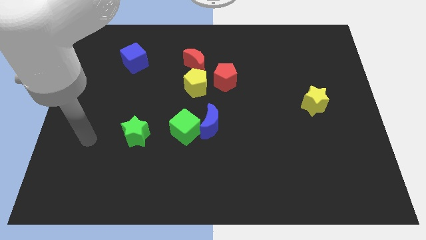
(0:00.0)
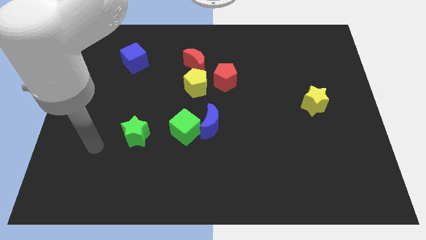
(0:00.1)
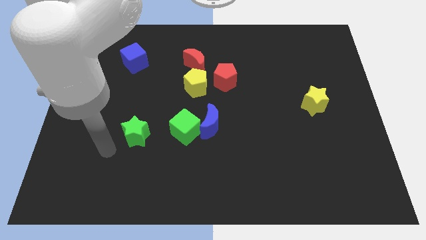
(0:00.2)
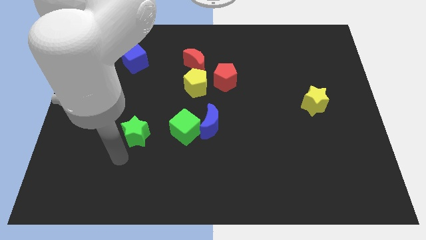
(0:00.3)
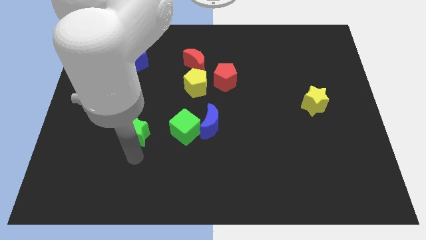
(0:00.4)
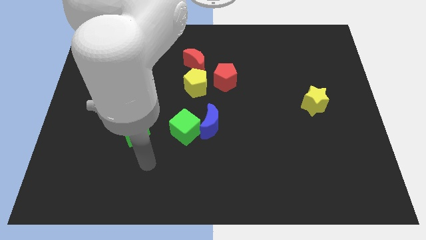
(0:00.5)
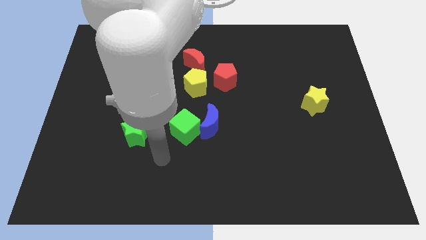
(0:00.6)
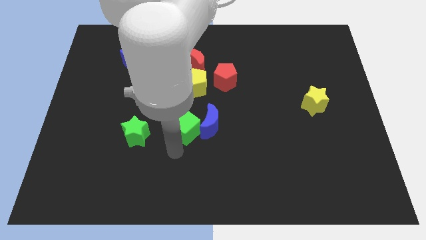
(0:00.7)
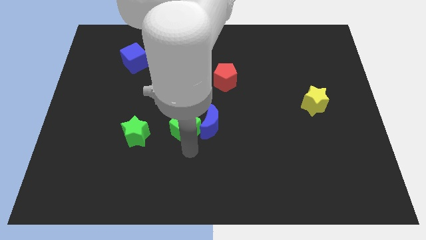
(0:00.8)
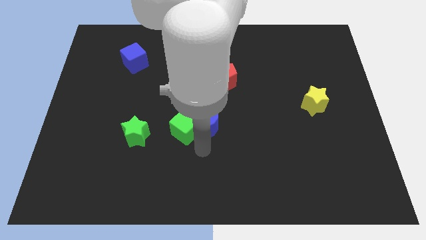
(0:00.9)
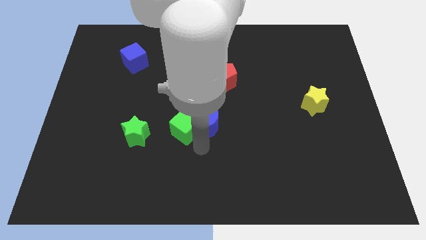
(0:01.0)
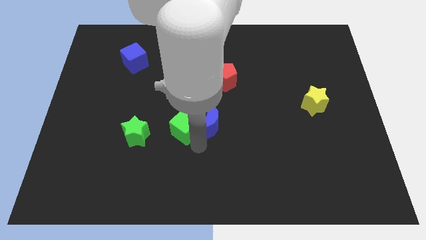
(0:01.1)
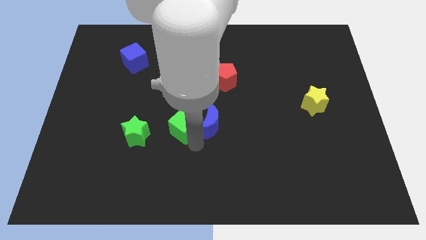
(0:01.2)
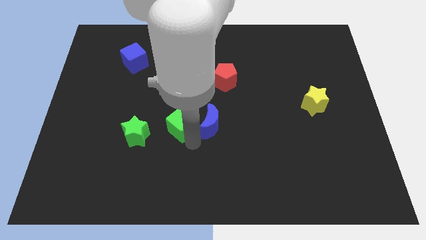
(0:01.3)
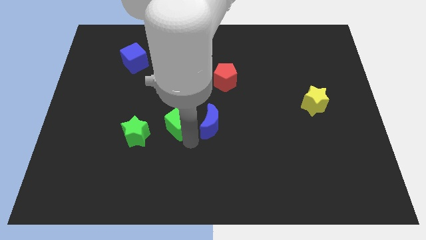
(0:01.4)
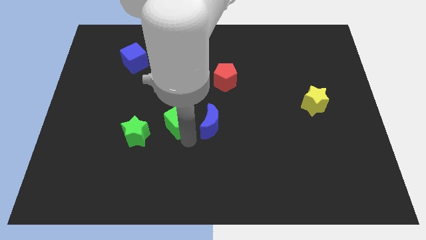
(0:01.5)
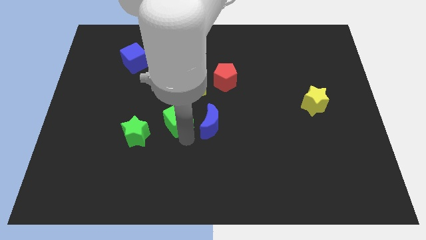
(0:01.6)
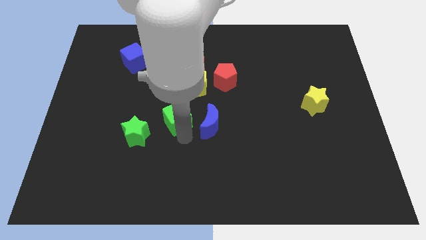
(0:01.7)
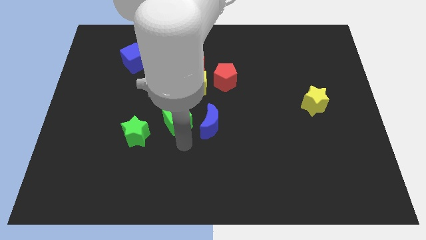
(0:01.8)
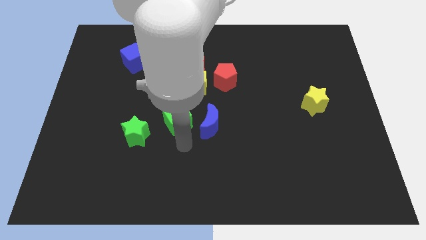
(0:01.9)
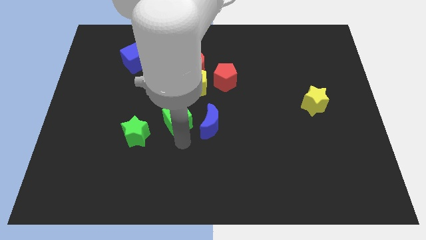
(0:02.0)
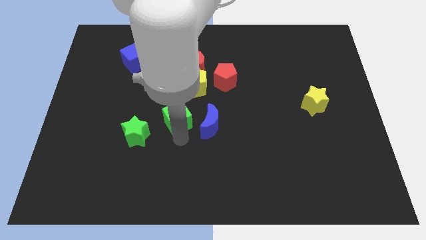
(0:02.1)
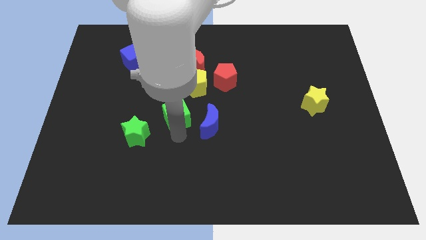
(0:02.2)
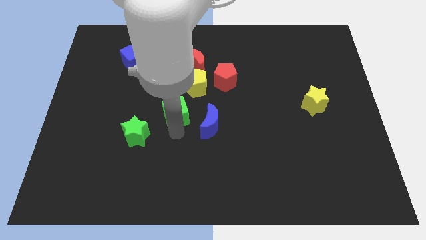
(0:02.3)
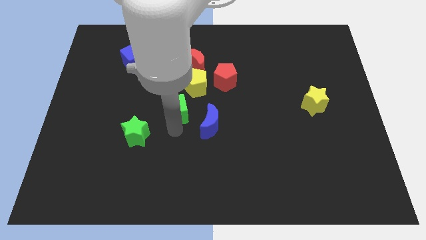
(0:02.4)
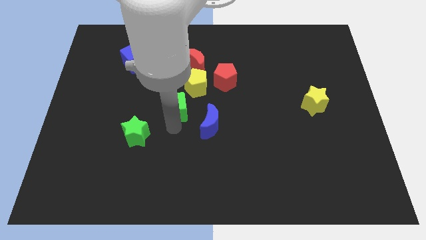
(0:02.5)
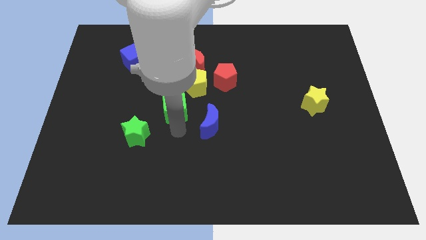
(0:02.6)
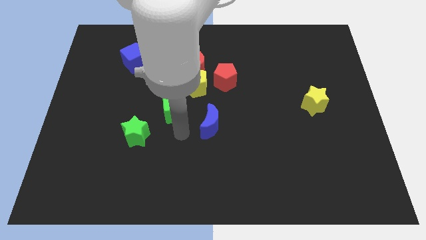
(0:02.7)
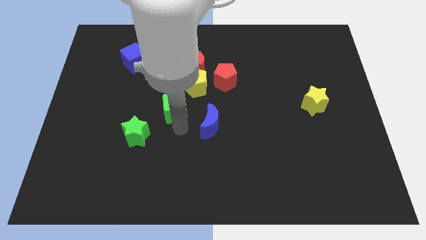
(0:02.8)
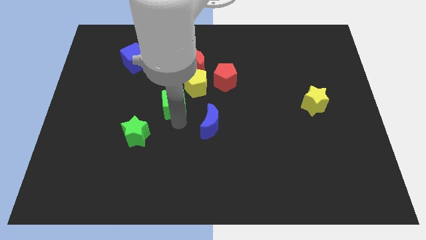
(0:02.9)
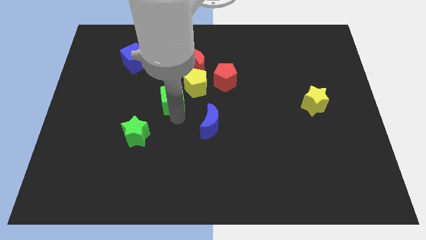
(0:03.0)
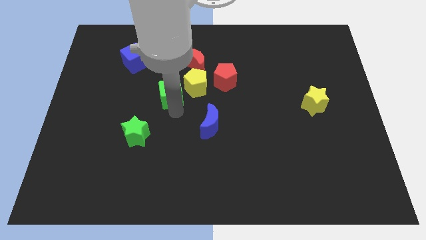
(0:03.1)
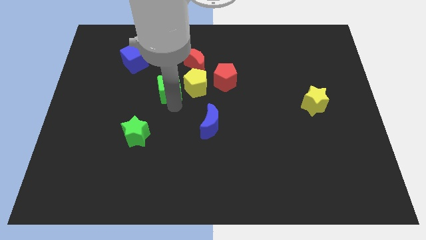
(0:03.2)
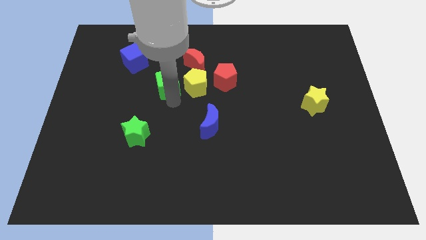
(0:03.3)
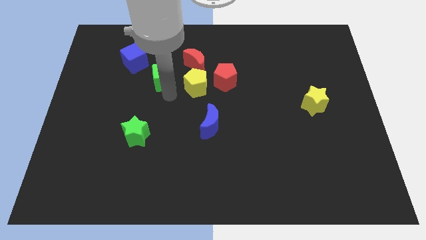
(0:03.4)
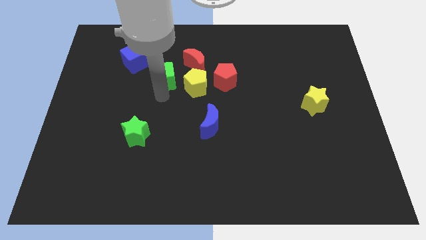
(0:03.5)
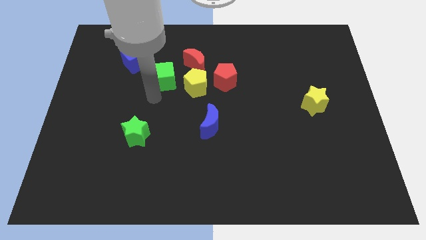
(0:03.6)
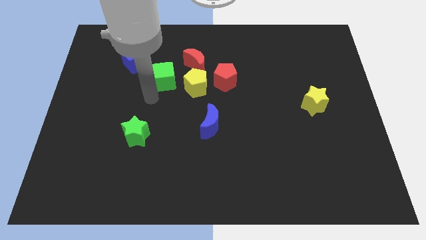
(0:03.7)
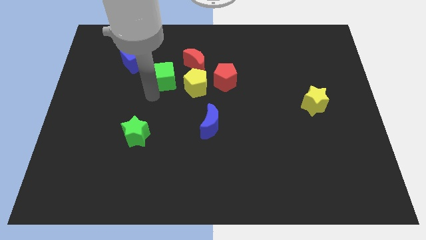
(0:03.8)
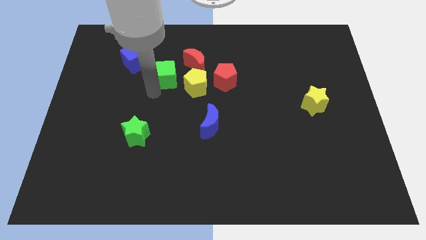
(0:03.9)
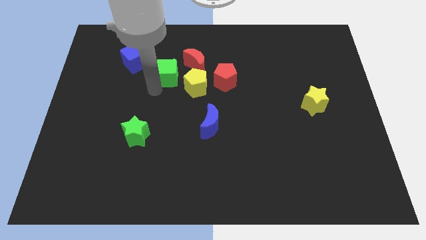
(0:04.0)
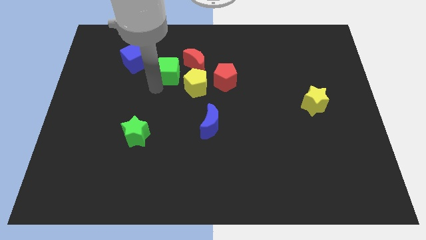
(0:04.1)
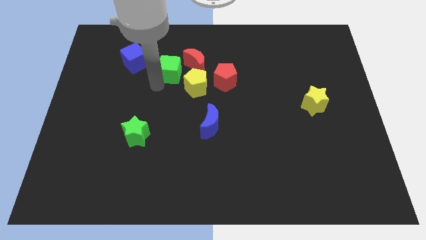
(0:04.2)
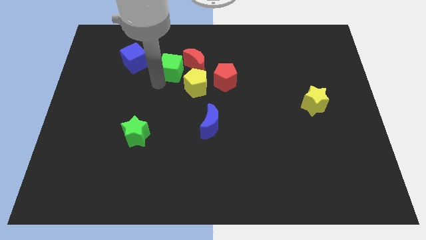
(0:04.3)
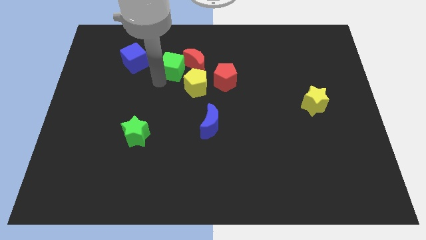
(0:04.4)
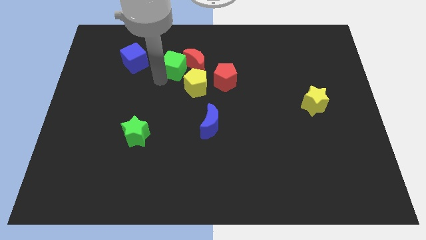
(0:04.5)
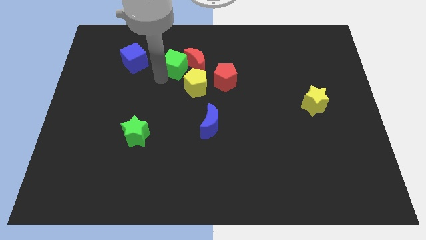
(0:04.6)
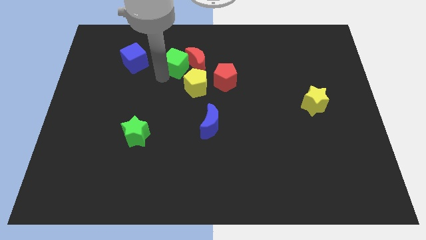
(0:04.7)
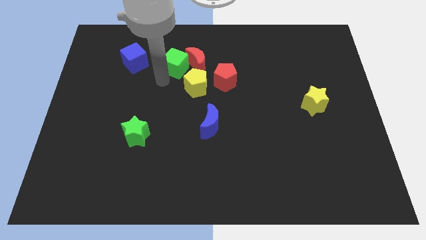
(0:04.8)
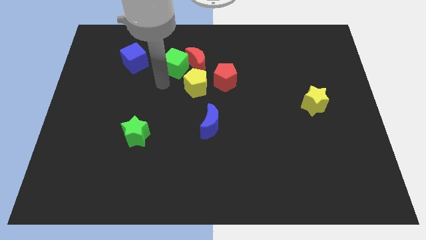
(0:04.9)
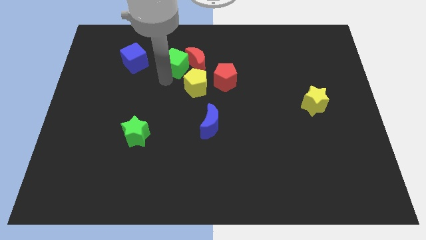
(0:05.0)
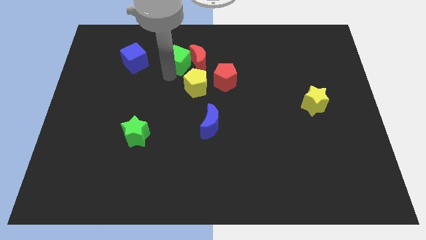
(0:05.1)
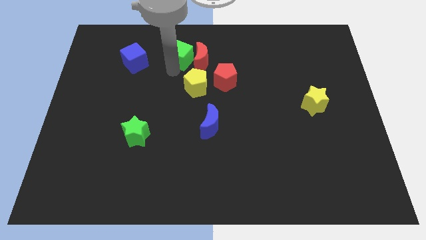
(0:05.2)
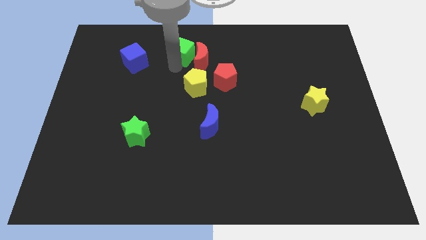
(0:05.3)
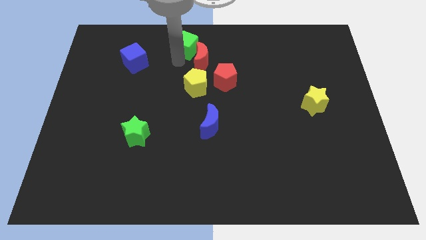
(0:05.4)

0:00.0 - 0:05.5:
move the green cube to the top side
